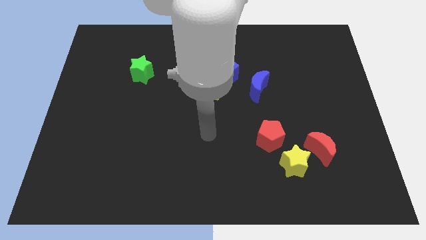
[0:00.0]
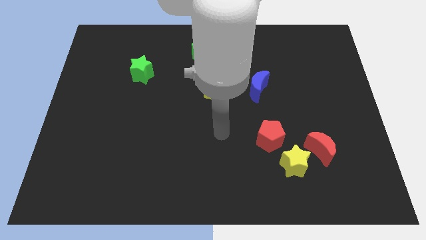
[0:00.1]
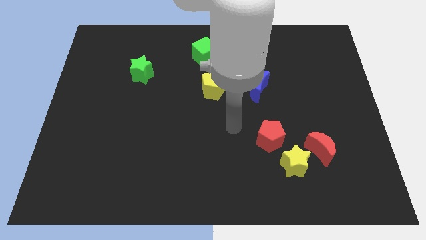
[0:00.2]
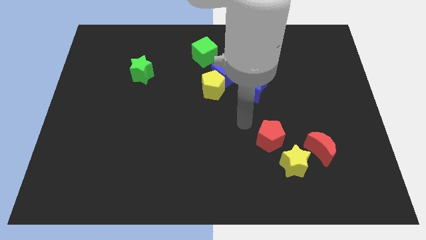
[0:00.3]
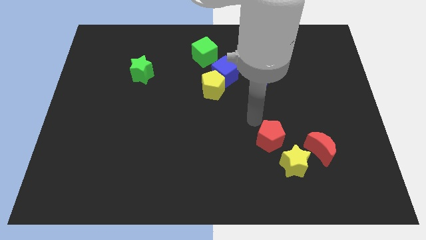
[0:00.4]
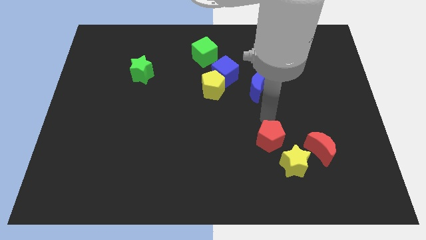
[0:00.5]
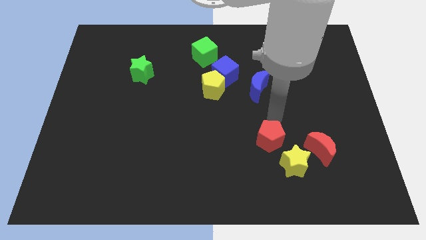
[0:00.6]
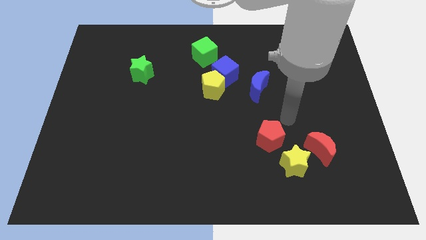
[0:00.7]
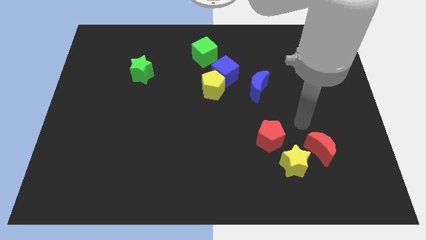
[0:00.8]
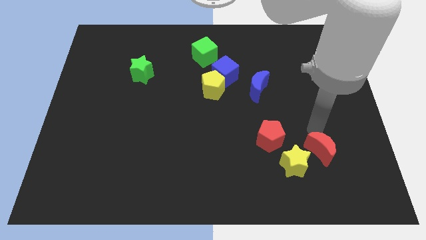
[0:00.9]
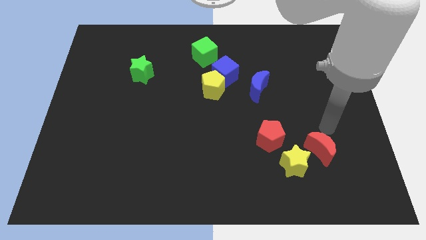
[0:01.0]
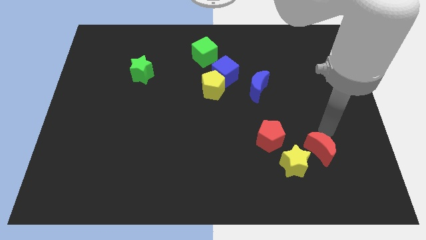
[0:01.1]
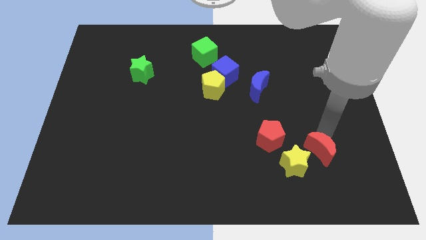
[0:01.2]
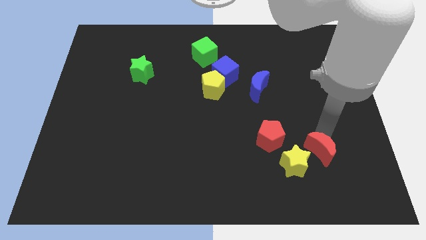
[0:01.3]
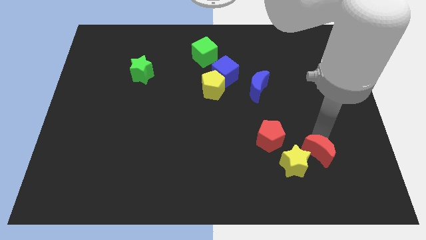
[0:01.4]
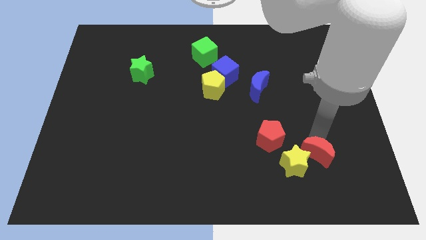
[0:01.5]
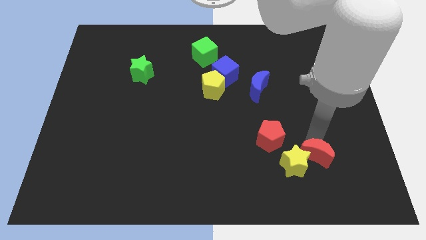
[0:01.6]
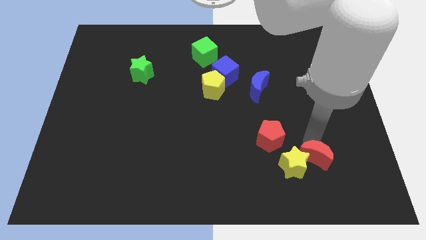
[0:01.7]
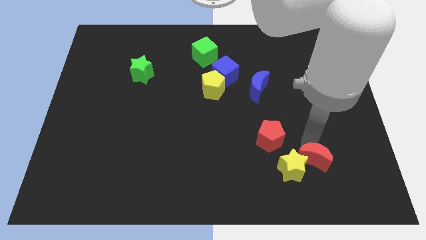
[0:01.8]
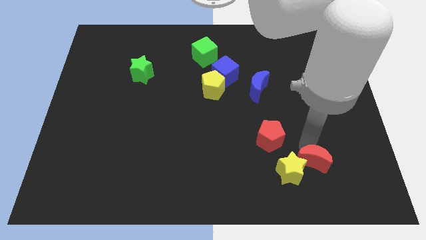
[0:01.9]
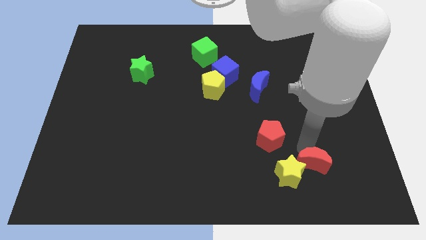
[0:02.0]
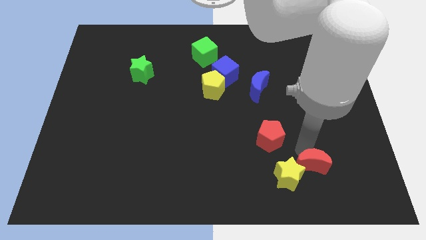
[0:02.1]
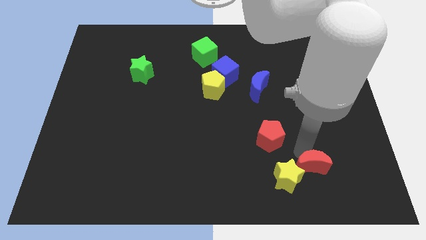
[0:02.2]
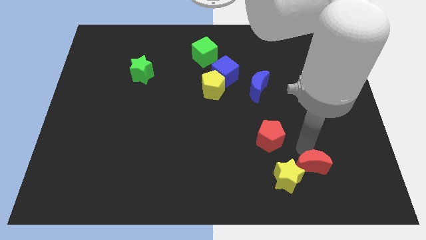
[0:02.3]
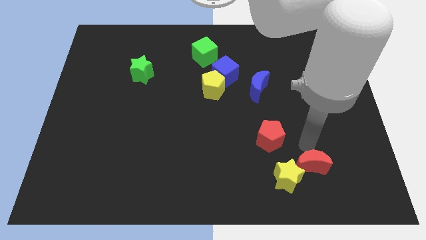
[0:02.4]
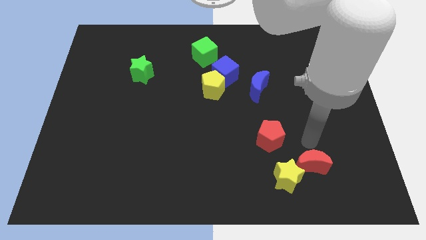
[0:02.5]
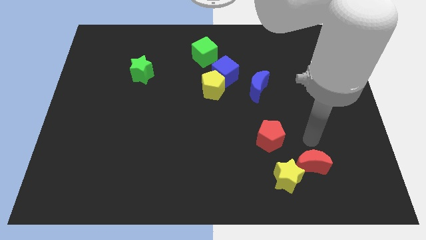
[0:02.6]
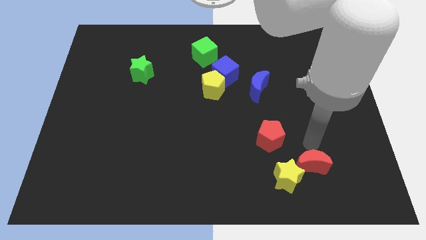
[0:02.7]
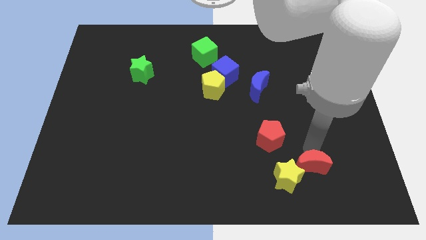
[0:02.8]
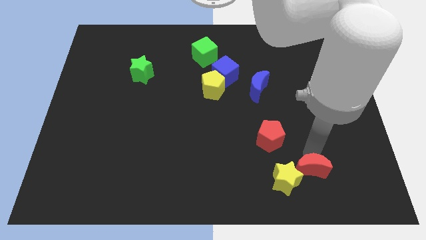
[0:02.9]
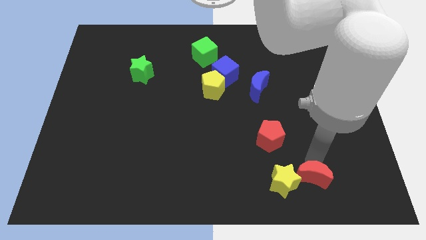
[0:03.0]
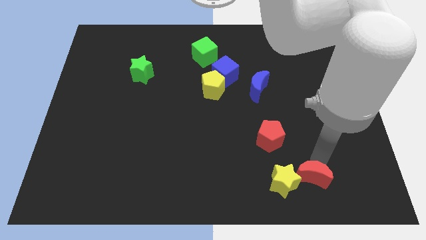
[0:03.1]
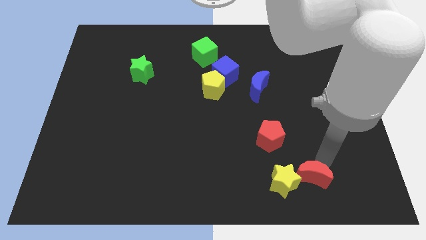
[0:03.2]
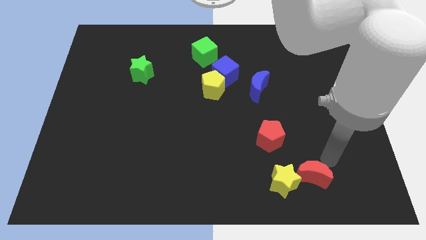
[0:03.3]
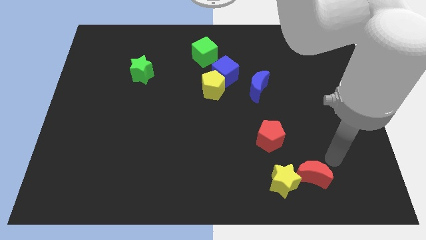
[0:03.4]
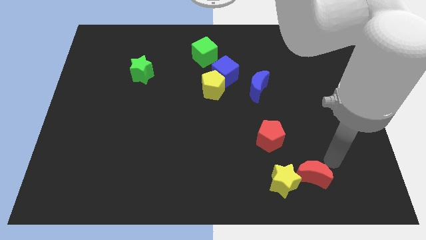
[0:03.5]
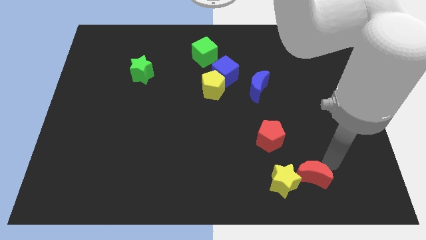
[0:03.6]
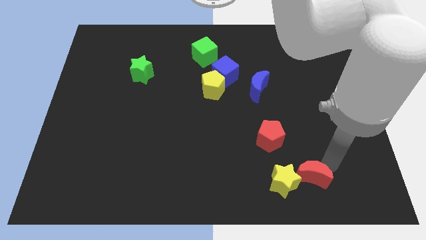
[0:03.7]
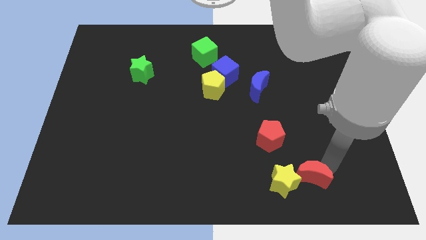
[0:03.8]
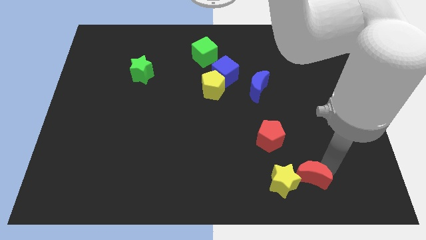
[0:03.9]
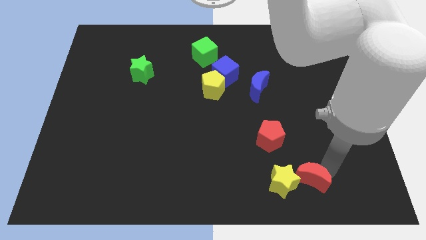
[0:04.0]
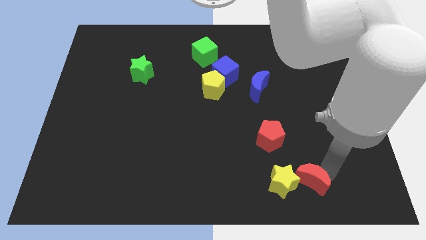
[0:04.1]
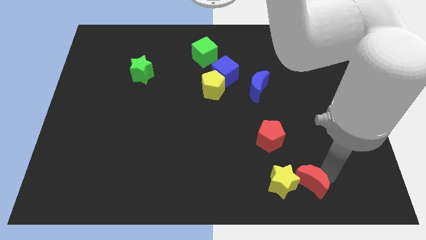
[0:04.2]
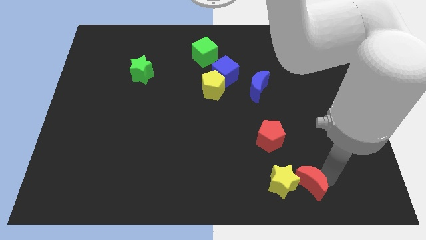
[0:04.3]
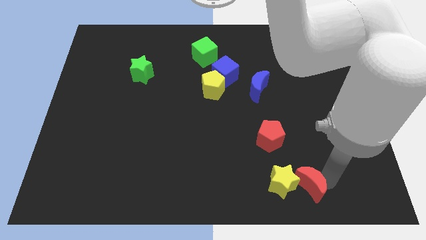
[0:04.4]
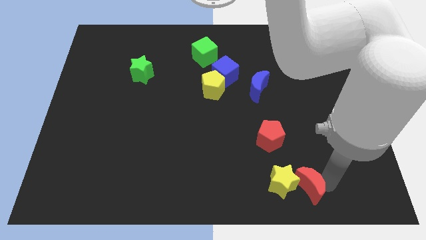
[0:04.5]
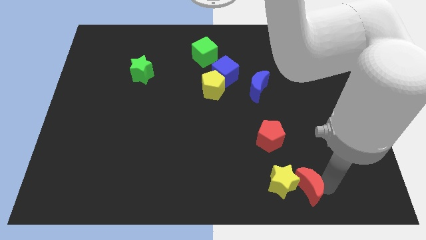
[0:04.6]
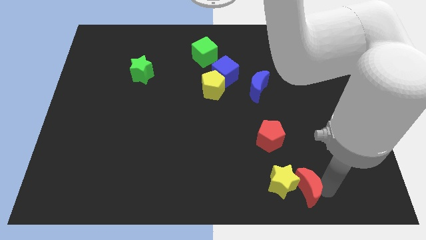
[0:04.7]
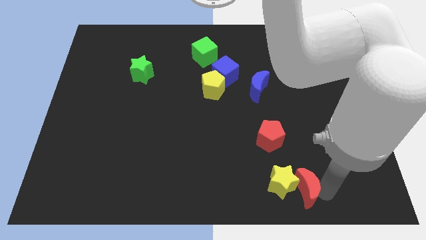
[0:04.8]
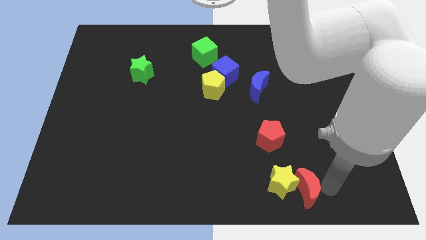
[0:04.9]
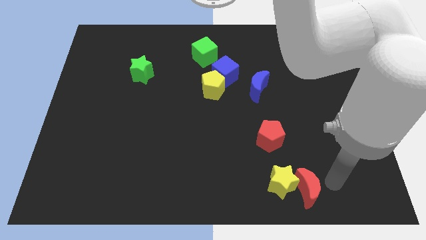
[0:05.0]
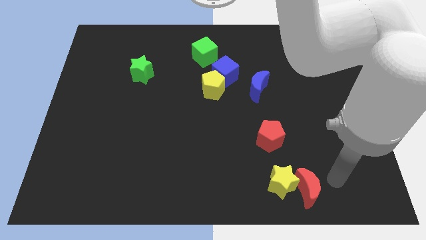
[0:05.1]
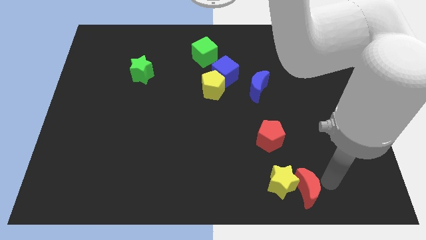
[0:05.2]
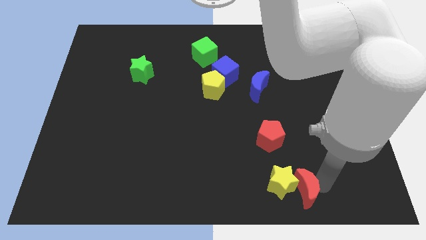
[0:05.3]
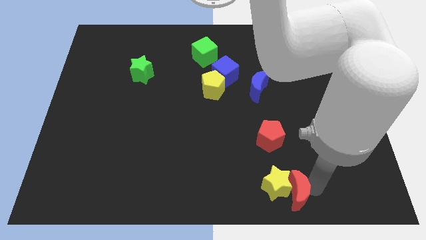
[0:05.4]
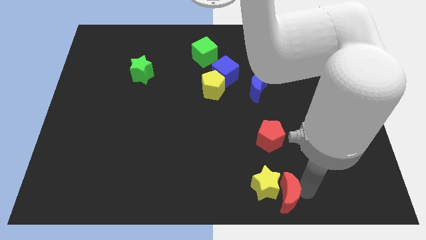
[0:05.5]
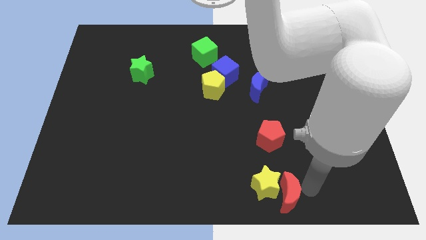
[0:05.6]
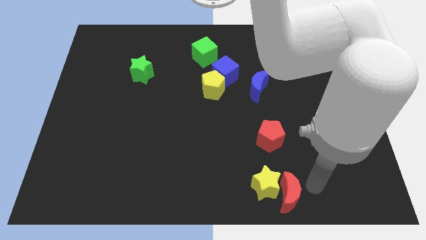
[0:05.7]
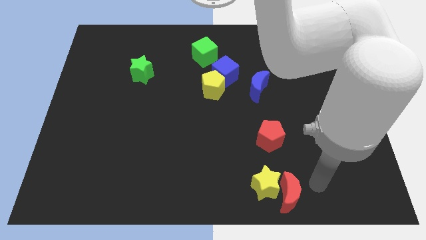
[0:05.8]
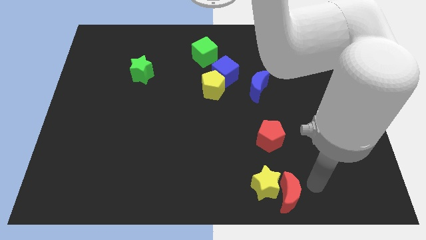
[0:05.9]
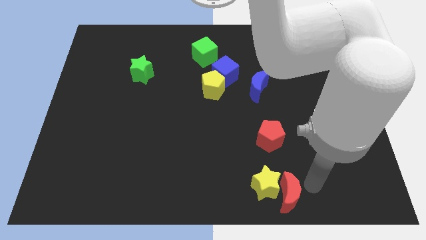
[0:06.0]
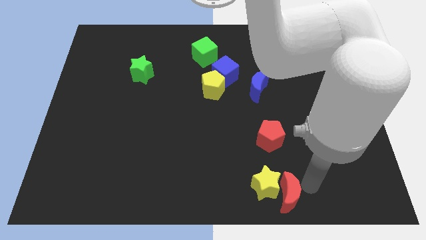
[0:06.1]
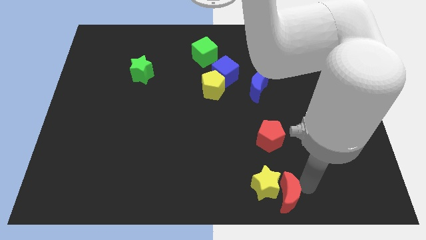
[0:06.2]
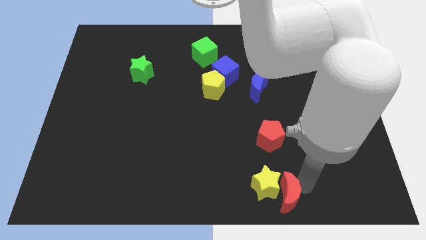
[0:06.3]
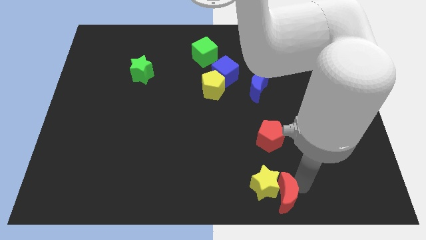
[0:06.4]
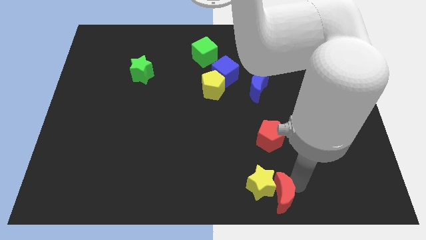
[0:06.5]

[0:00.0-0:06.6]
move the red moon to the bottom side

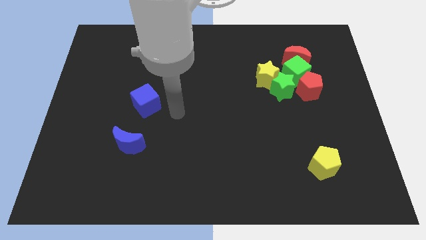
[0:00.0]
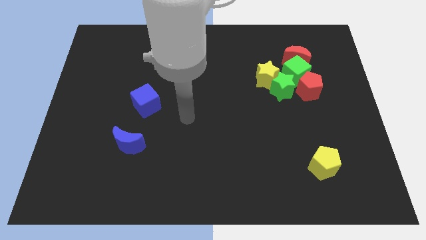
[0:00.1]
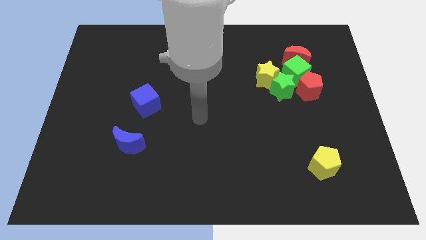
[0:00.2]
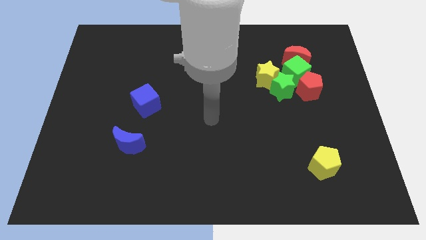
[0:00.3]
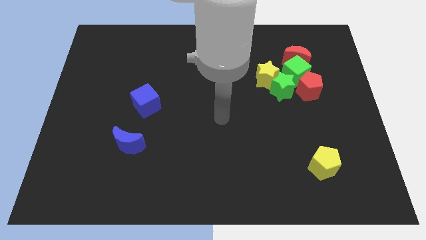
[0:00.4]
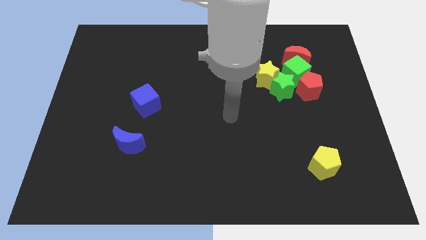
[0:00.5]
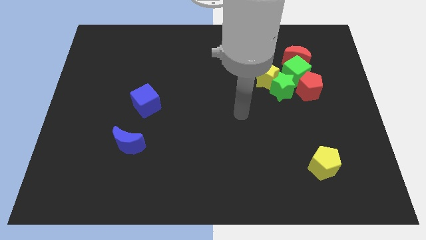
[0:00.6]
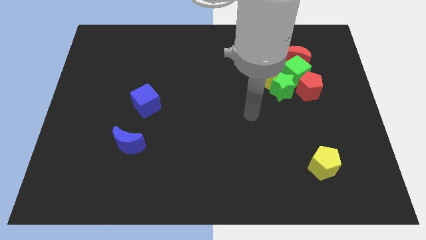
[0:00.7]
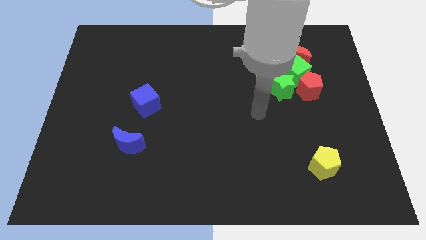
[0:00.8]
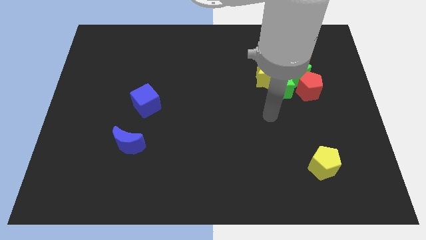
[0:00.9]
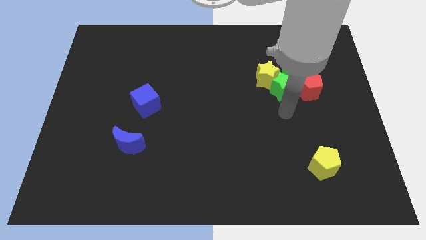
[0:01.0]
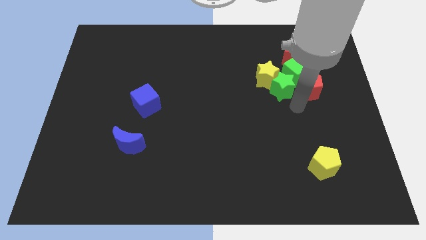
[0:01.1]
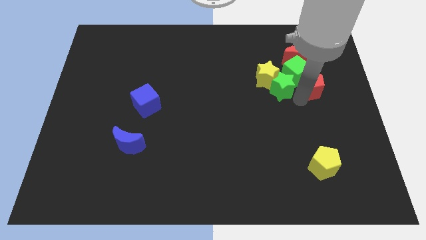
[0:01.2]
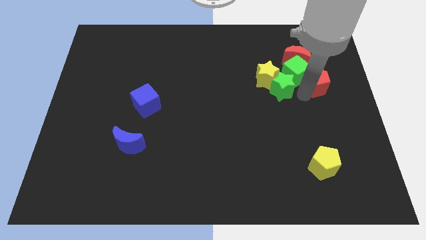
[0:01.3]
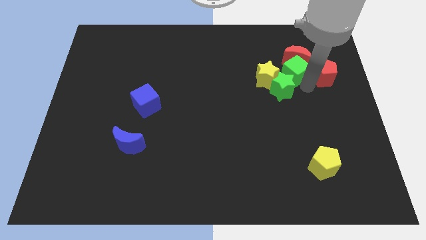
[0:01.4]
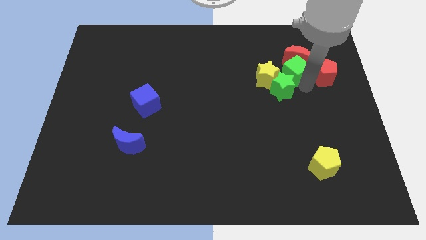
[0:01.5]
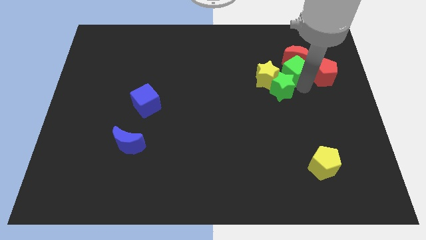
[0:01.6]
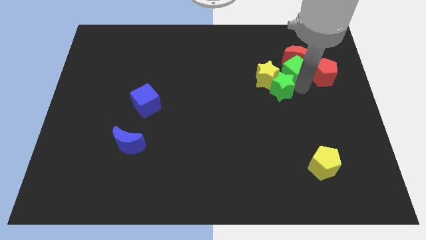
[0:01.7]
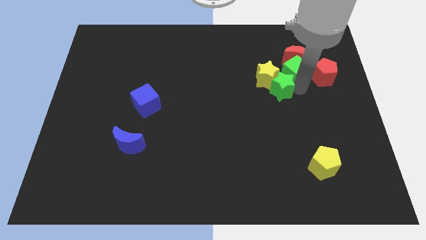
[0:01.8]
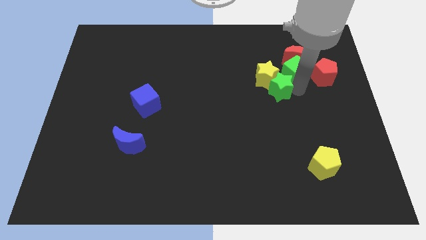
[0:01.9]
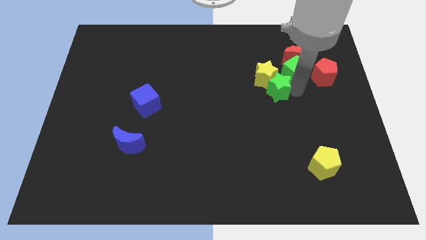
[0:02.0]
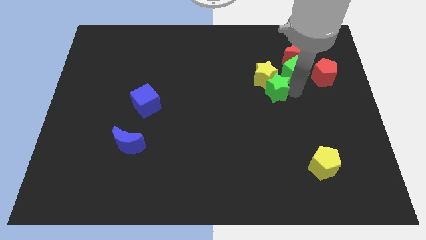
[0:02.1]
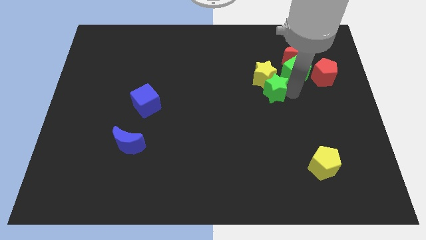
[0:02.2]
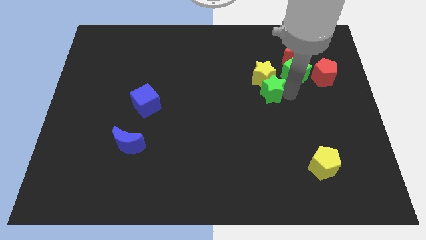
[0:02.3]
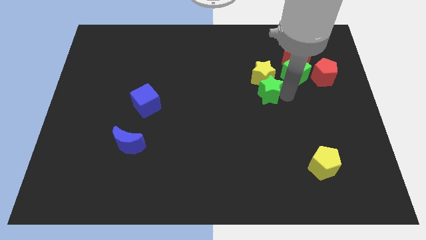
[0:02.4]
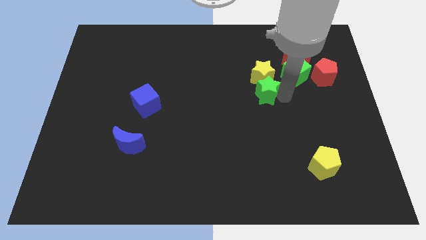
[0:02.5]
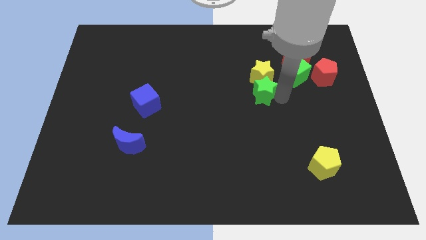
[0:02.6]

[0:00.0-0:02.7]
move the green star to the middle of the board
